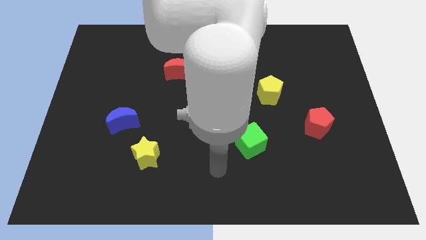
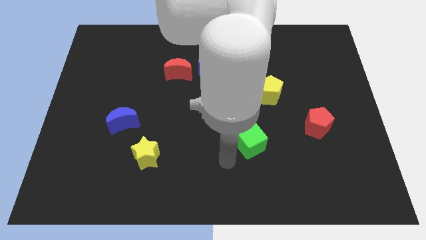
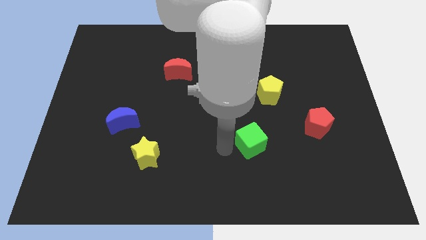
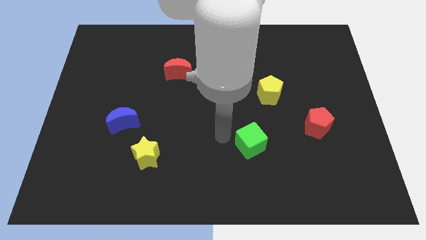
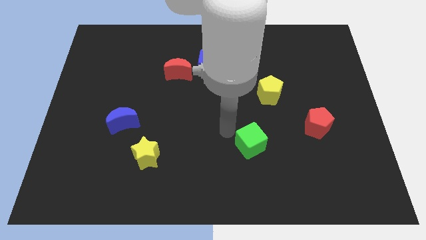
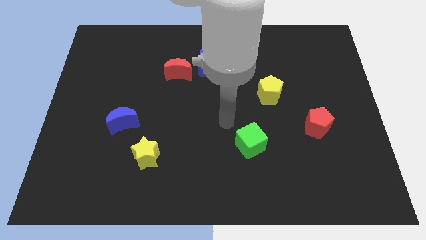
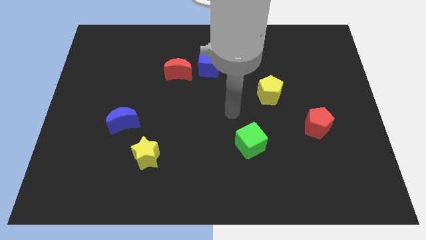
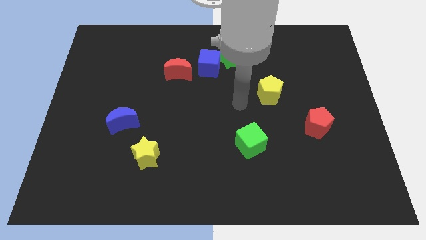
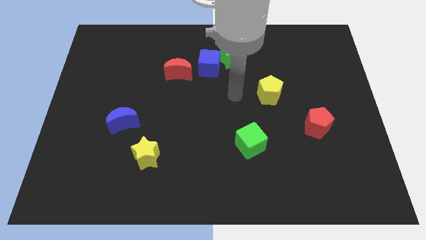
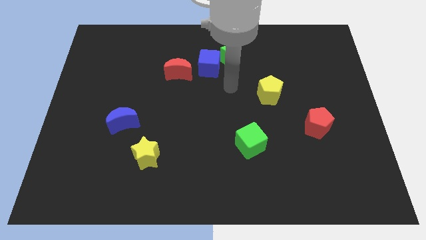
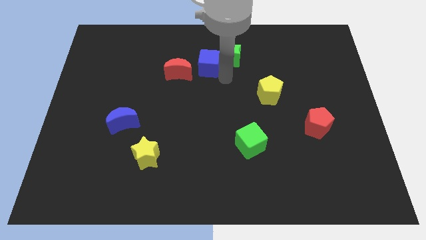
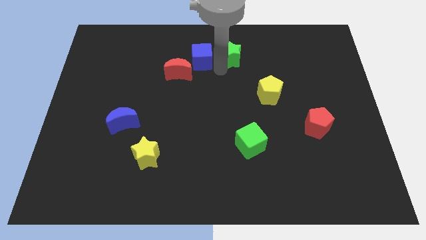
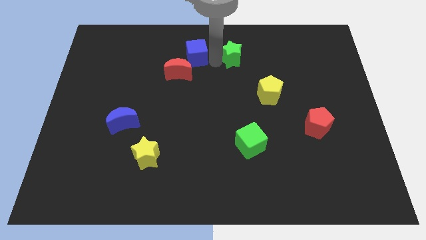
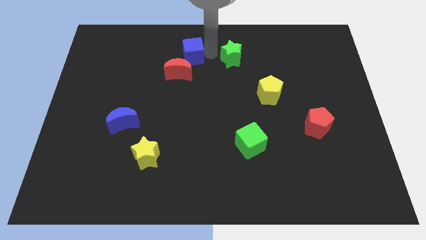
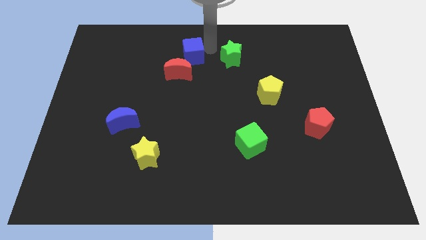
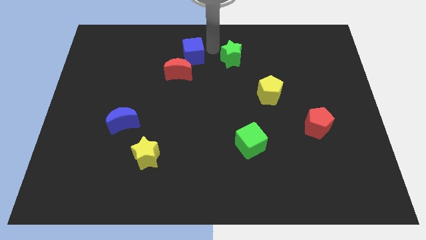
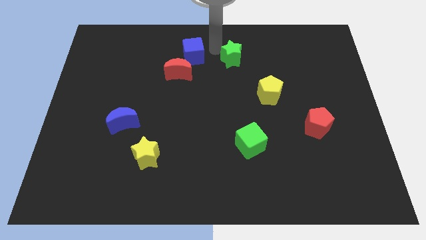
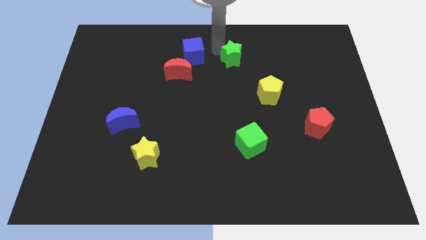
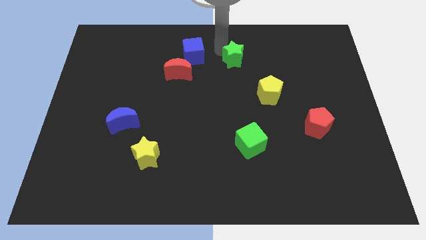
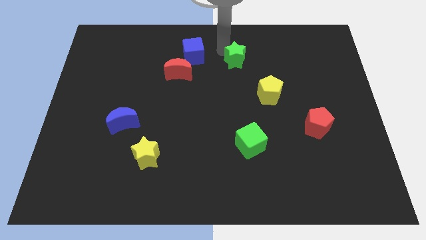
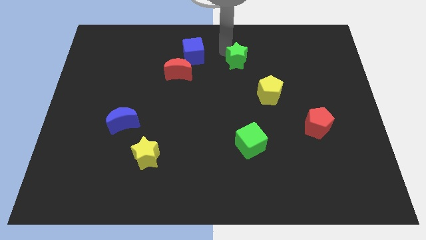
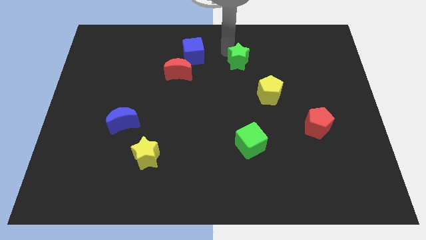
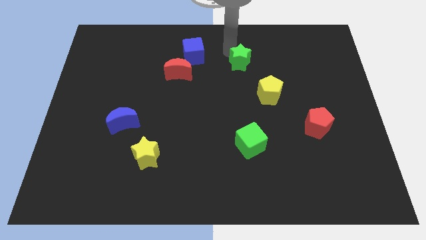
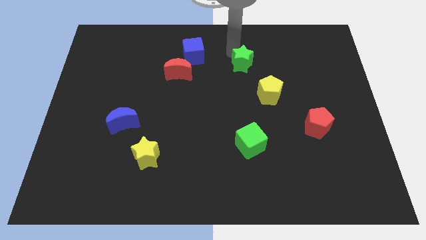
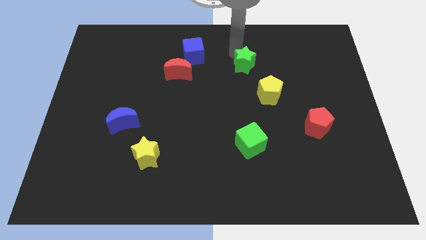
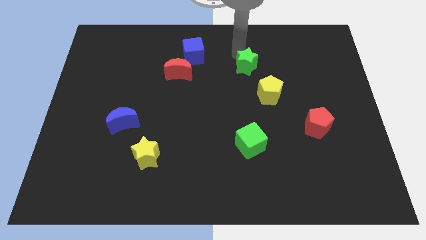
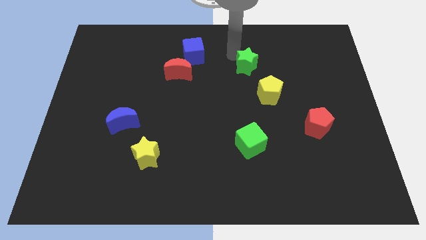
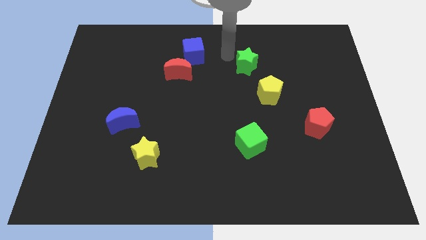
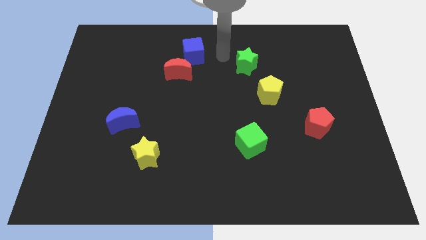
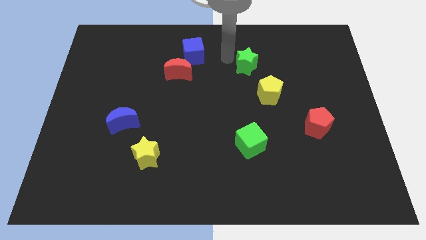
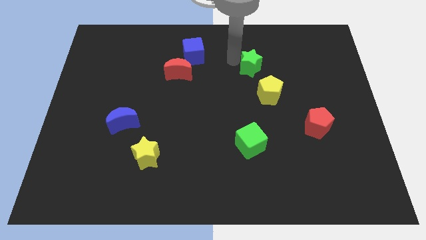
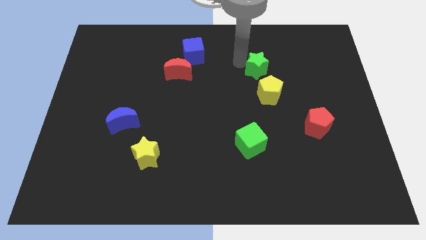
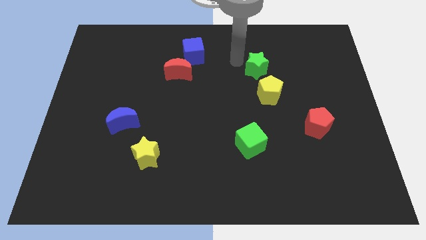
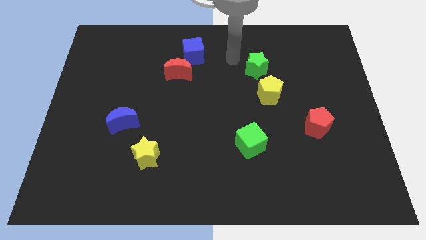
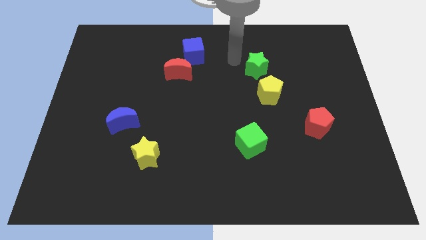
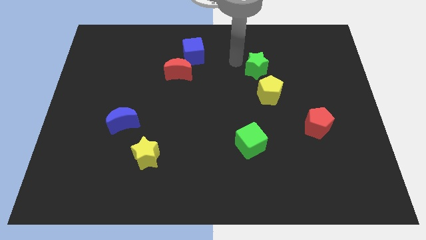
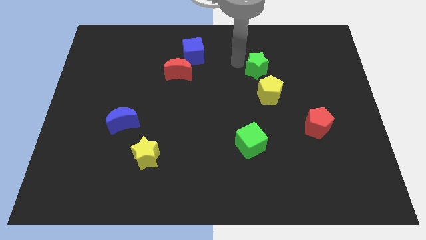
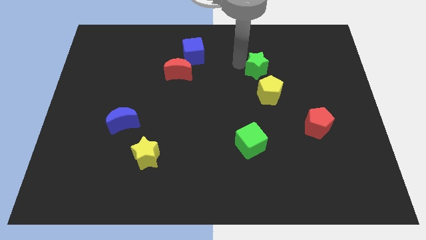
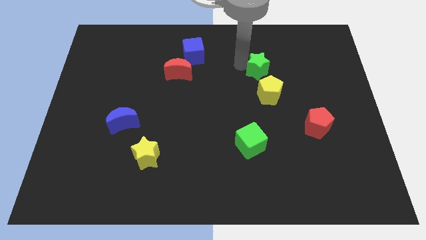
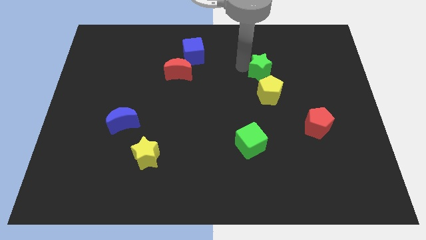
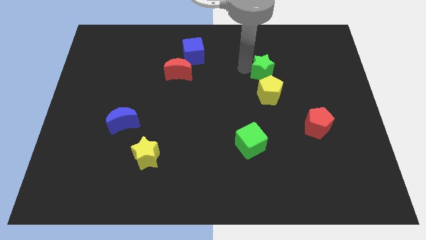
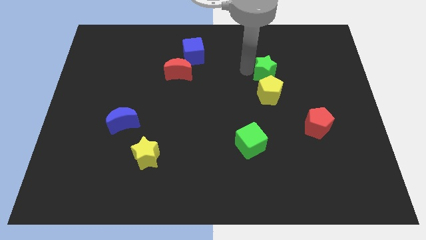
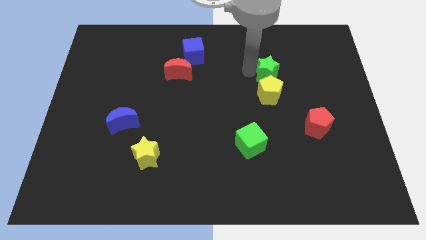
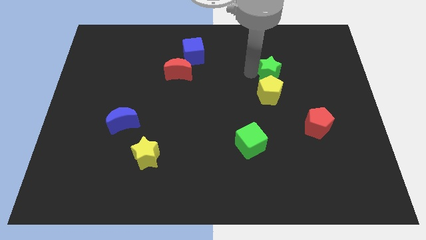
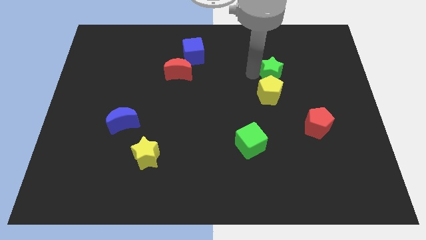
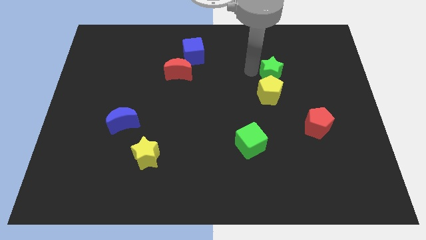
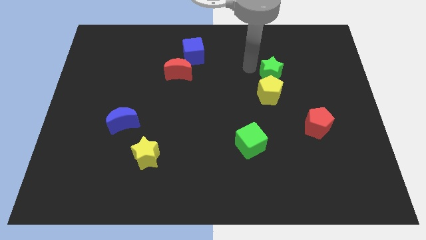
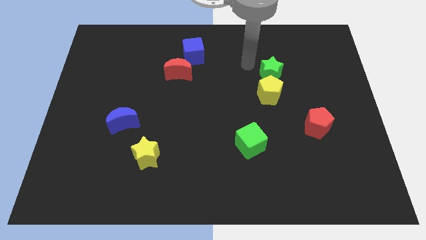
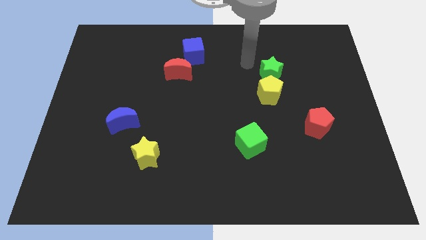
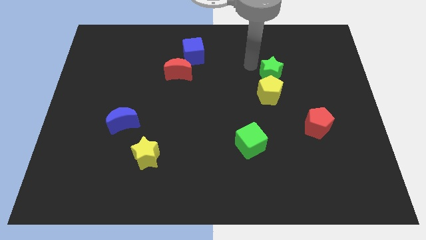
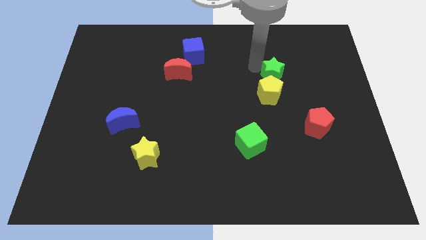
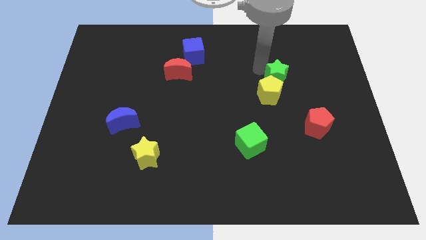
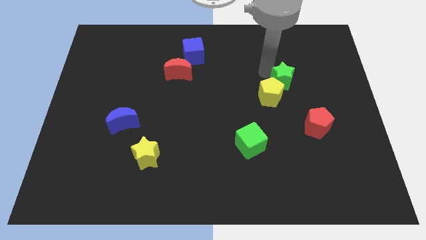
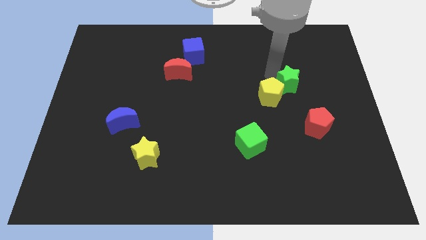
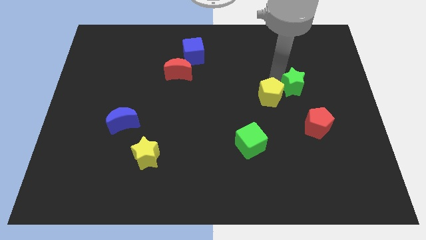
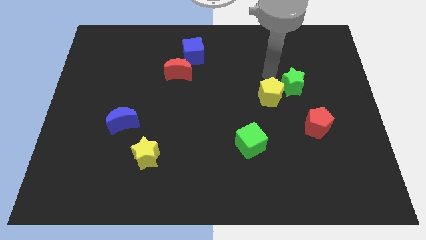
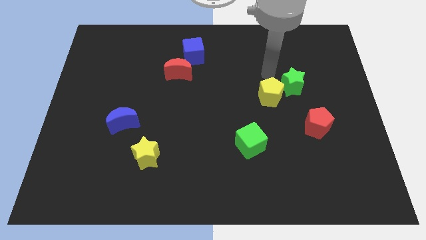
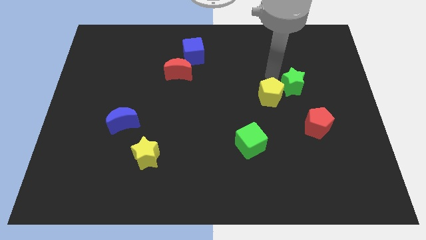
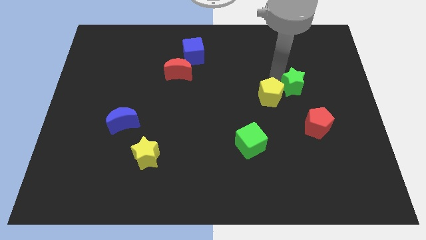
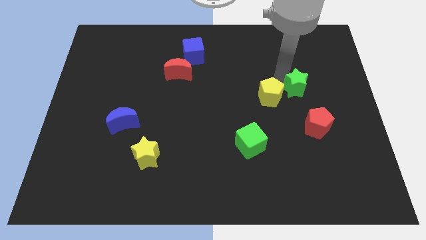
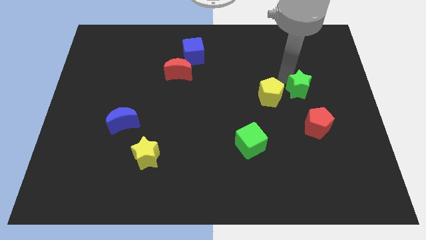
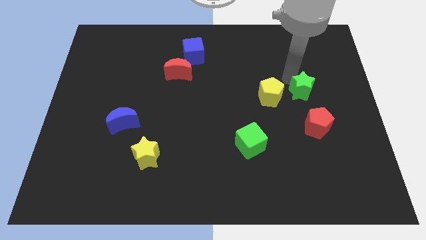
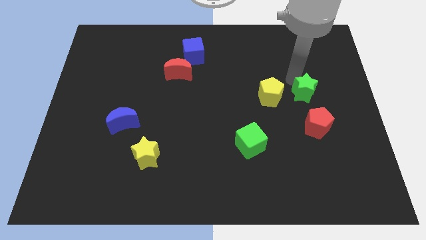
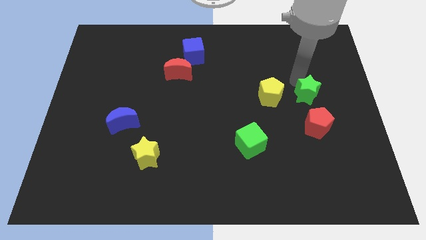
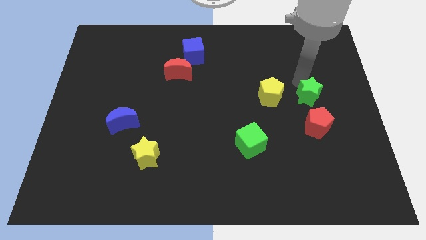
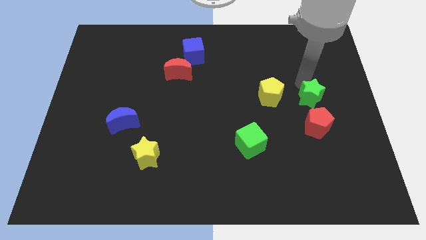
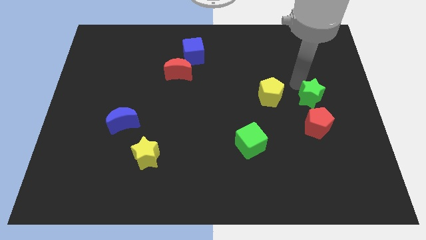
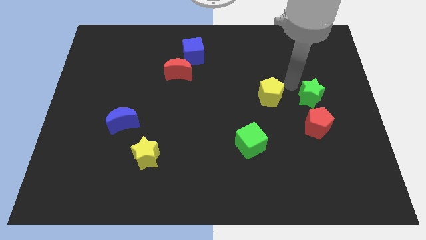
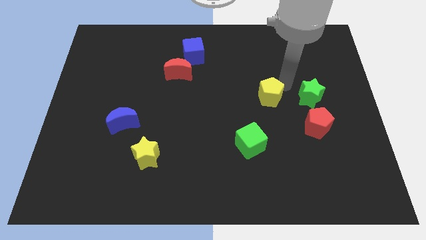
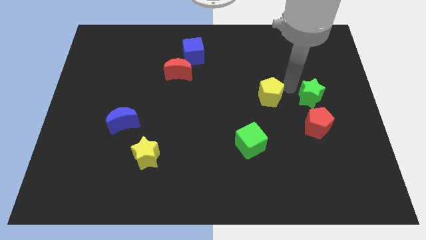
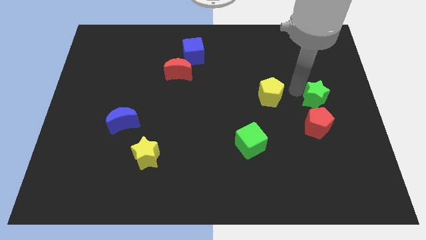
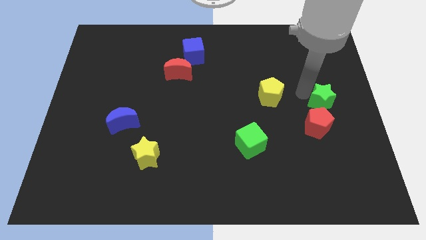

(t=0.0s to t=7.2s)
slide the green star to the top right side of the red pentagon
